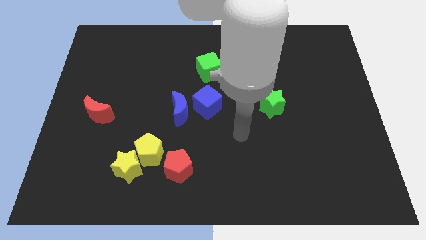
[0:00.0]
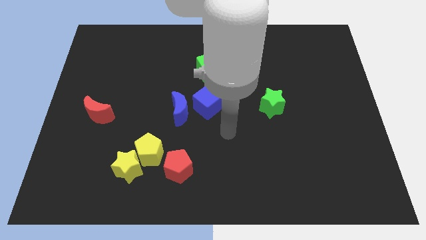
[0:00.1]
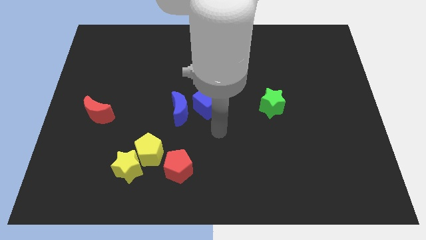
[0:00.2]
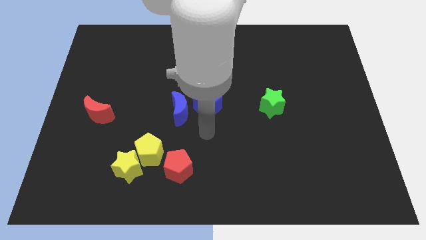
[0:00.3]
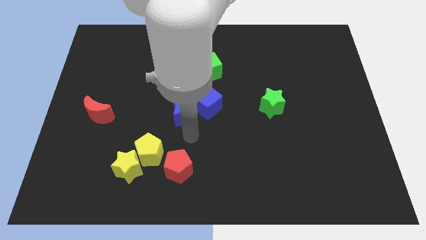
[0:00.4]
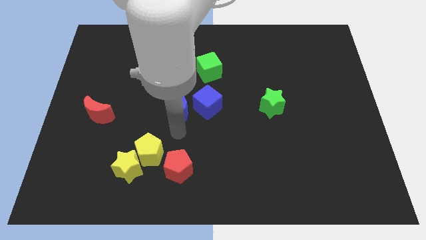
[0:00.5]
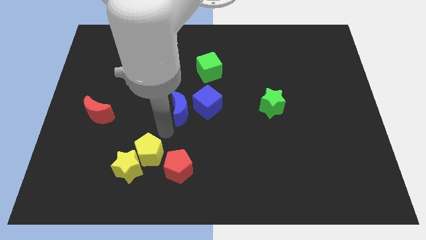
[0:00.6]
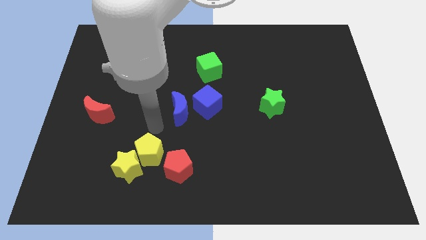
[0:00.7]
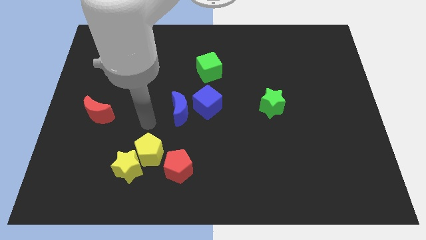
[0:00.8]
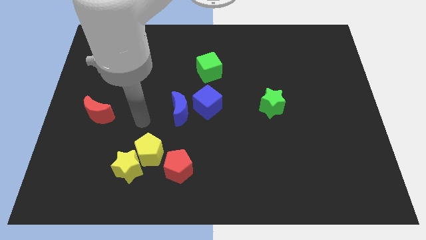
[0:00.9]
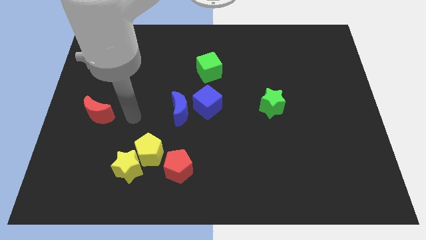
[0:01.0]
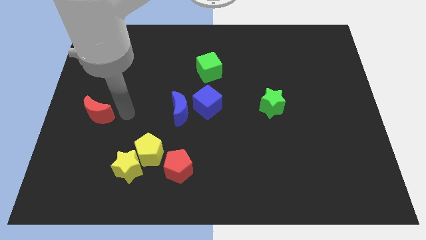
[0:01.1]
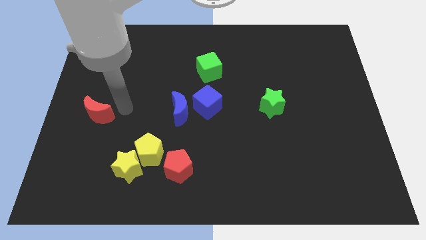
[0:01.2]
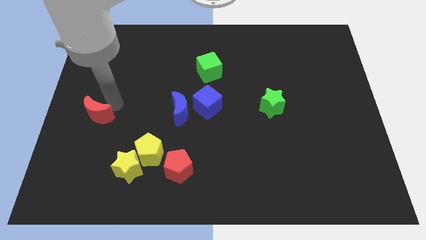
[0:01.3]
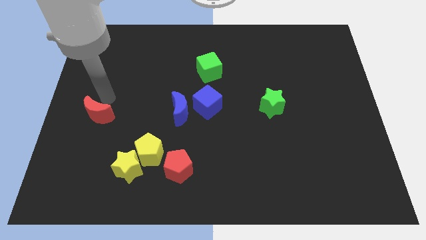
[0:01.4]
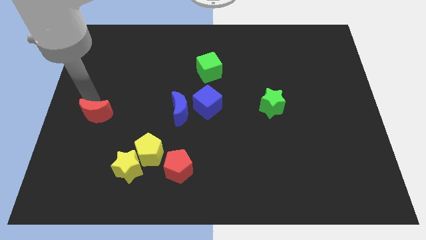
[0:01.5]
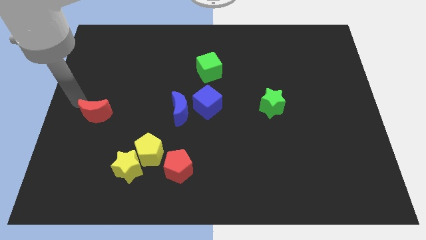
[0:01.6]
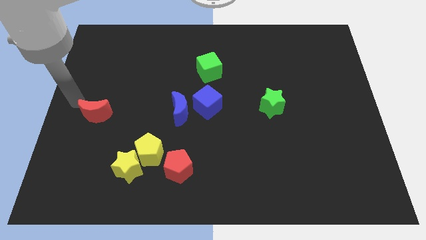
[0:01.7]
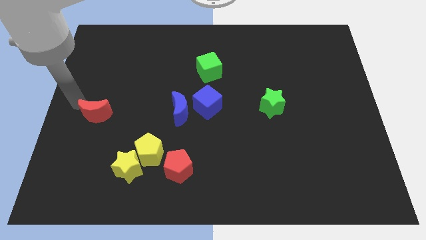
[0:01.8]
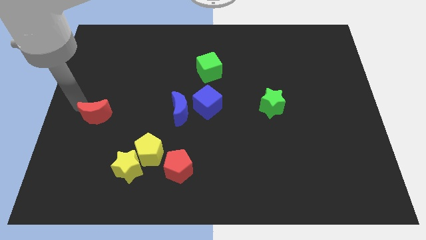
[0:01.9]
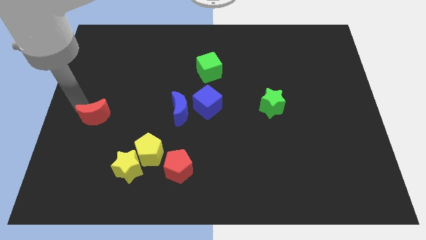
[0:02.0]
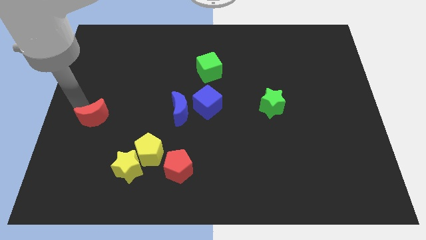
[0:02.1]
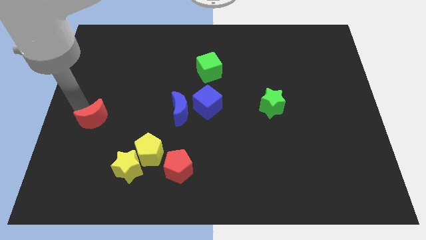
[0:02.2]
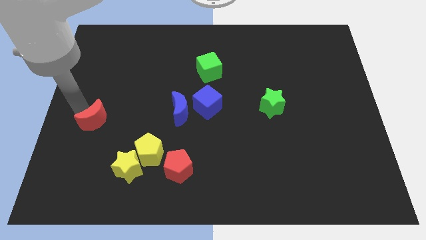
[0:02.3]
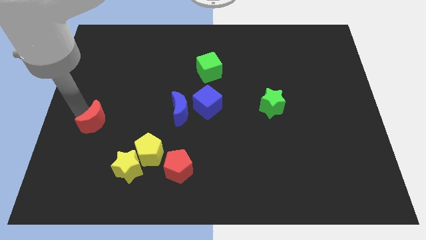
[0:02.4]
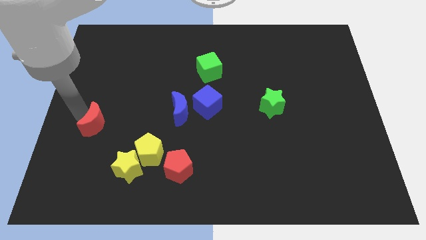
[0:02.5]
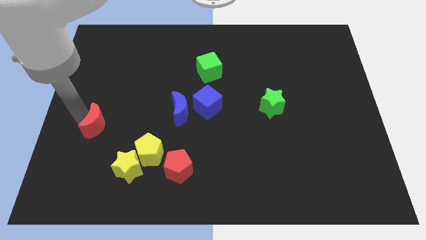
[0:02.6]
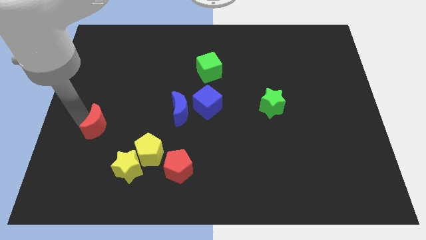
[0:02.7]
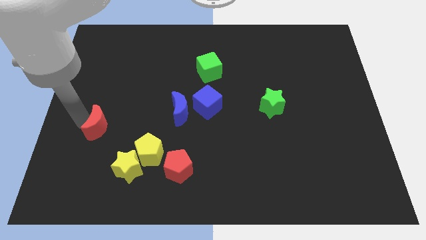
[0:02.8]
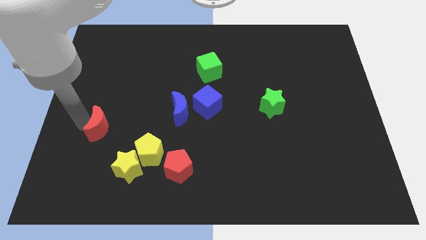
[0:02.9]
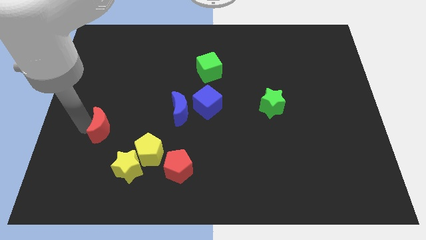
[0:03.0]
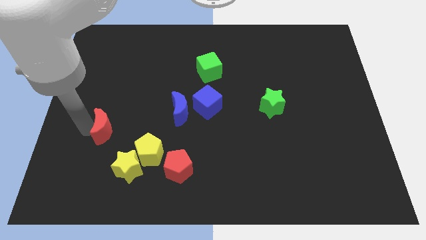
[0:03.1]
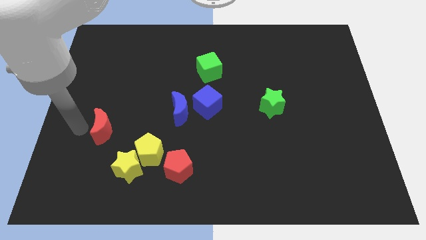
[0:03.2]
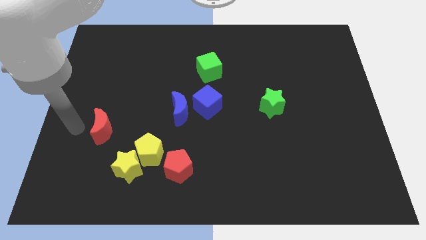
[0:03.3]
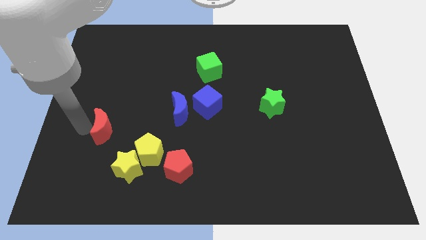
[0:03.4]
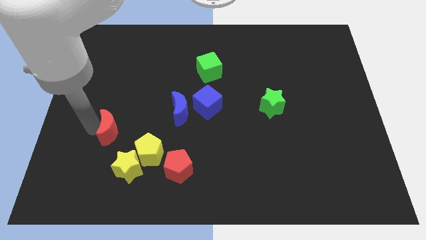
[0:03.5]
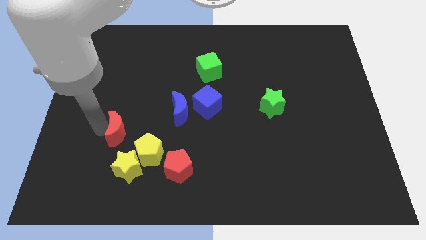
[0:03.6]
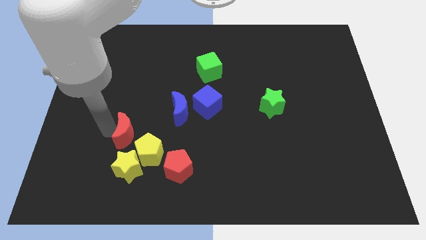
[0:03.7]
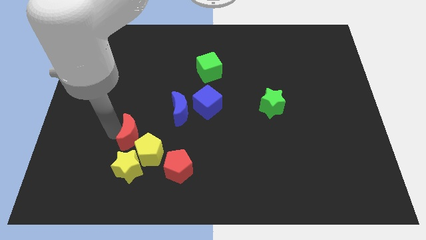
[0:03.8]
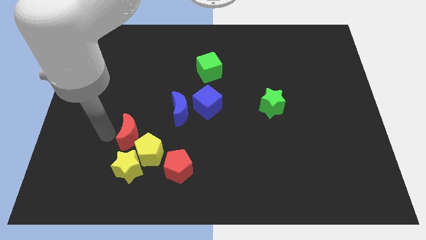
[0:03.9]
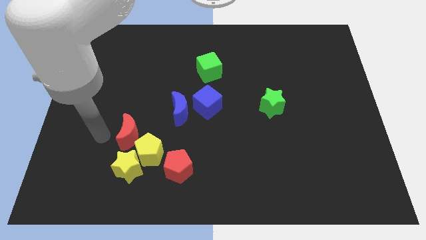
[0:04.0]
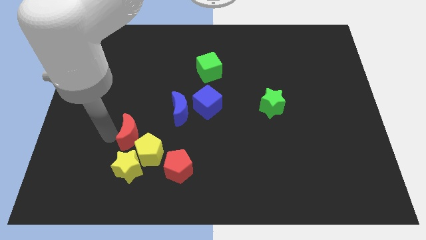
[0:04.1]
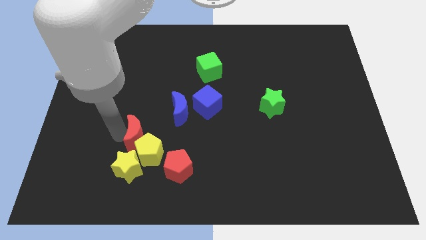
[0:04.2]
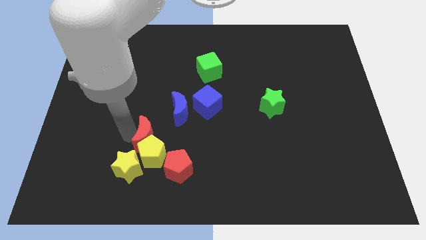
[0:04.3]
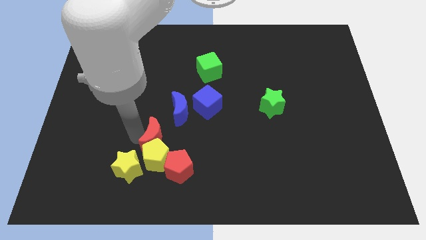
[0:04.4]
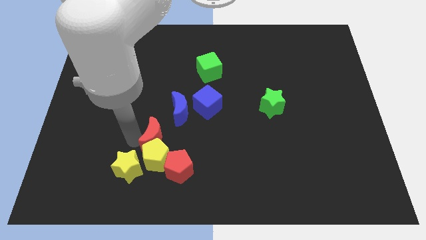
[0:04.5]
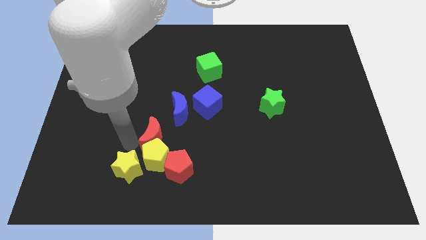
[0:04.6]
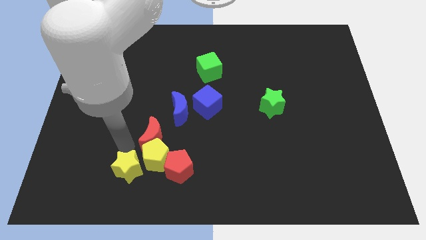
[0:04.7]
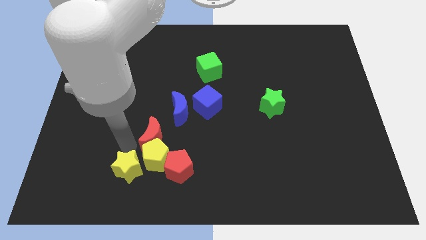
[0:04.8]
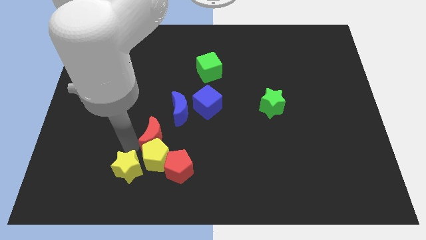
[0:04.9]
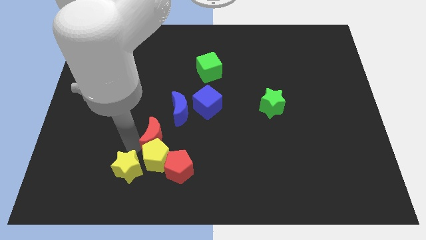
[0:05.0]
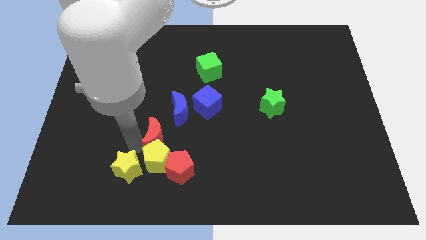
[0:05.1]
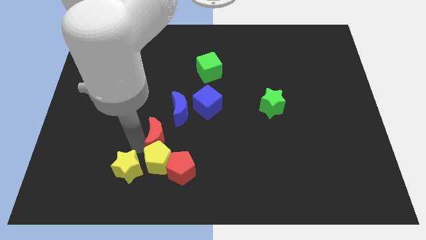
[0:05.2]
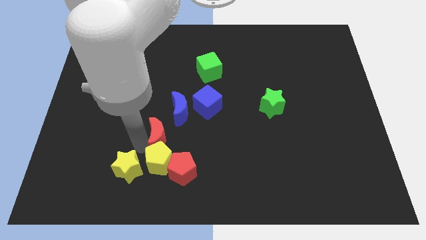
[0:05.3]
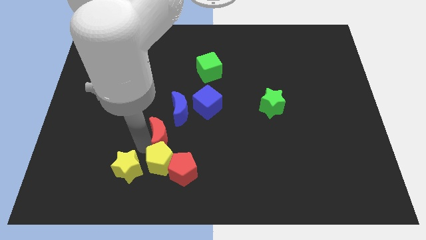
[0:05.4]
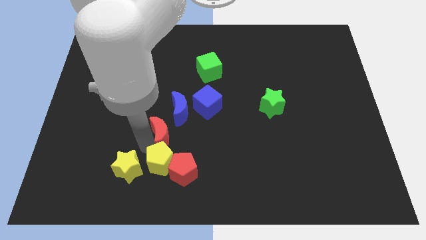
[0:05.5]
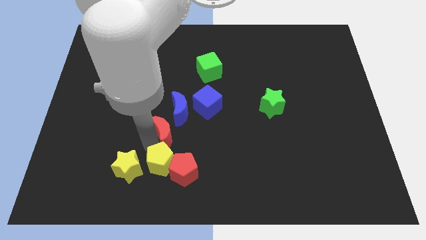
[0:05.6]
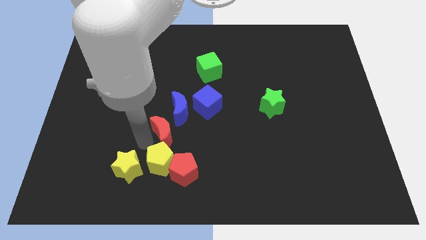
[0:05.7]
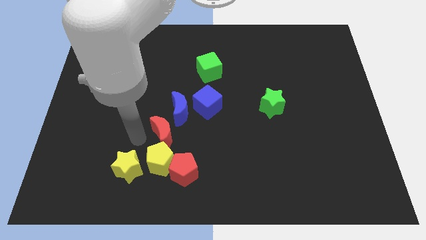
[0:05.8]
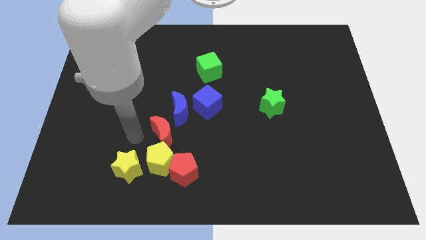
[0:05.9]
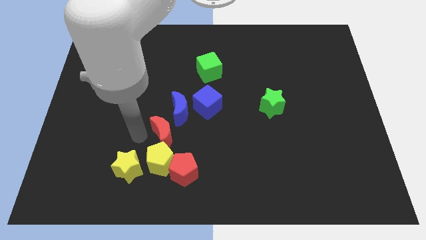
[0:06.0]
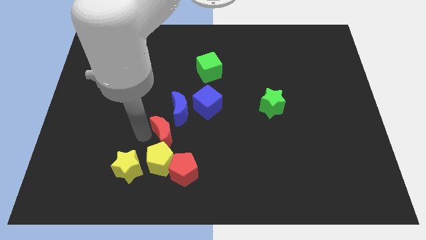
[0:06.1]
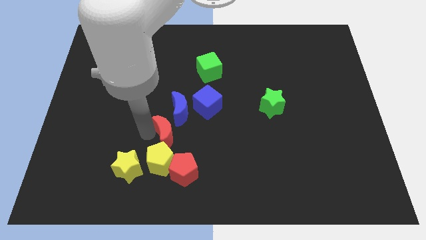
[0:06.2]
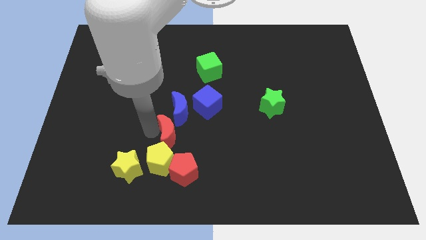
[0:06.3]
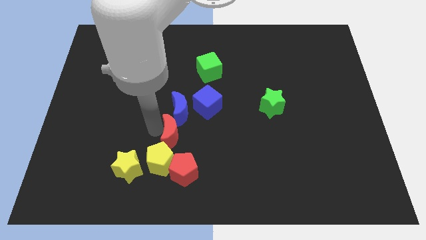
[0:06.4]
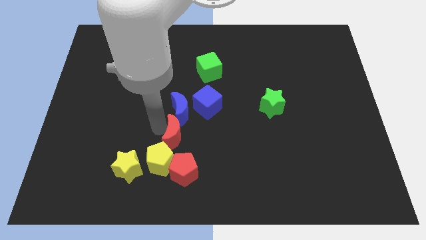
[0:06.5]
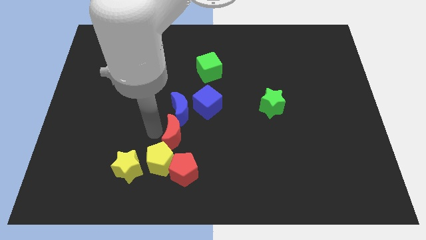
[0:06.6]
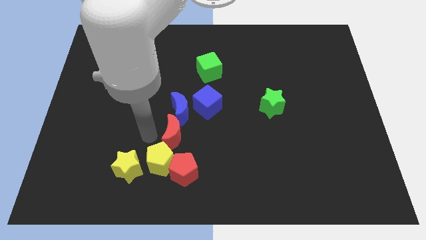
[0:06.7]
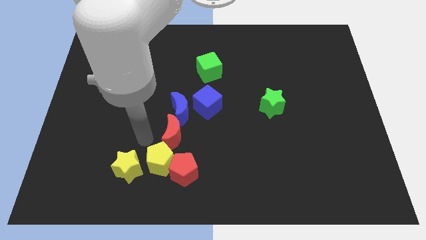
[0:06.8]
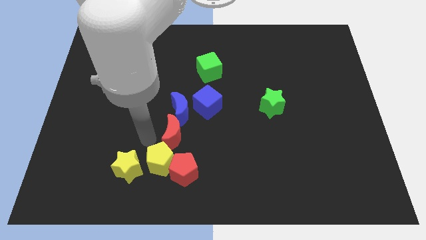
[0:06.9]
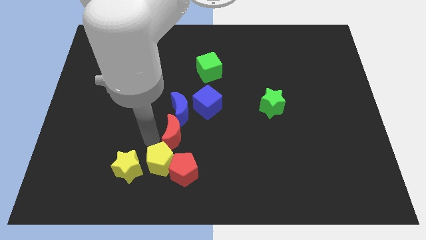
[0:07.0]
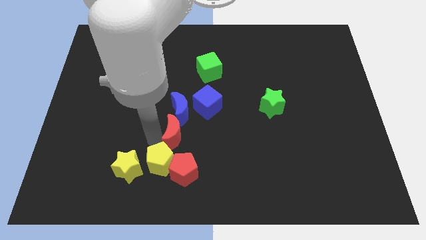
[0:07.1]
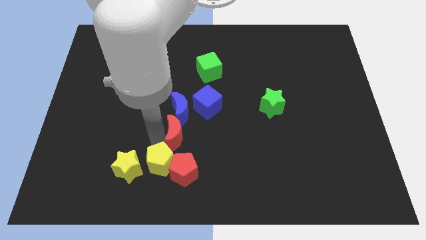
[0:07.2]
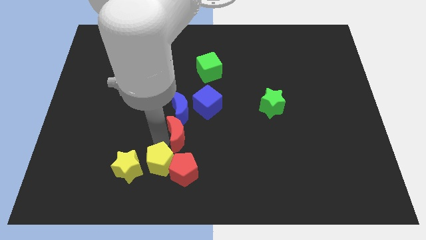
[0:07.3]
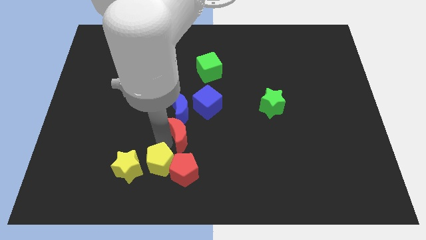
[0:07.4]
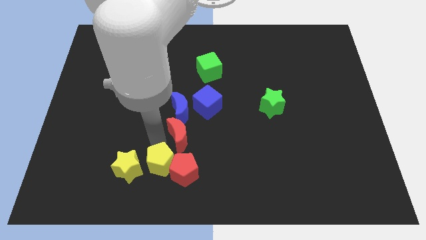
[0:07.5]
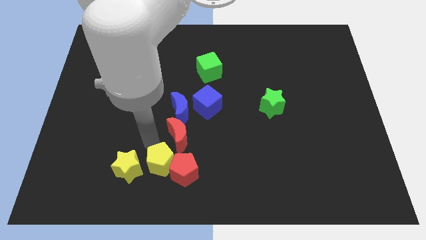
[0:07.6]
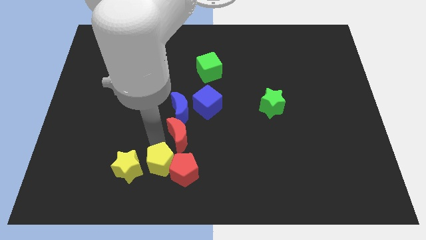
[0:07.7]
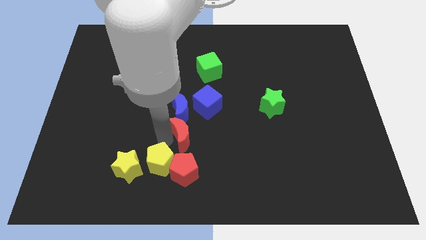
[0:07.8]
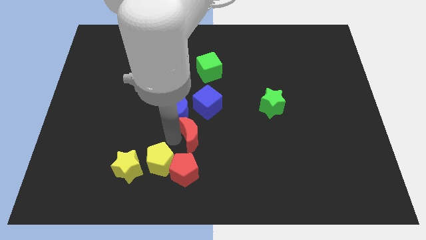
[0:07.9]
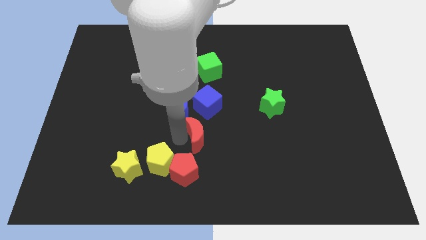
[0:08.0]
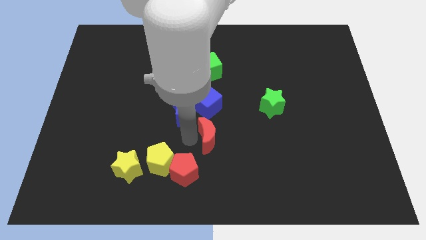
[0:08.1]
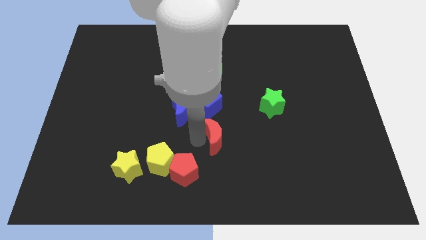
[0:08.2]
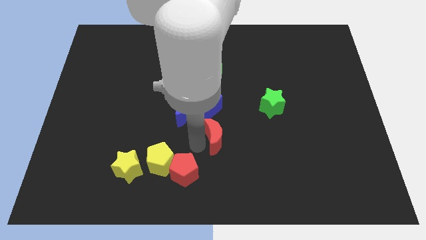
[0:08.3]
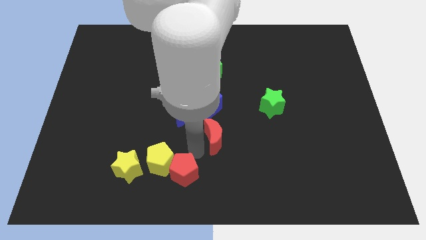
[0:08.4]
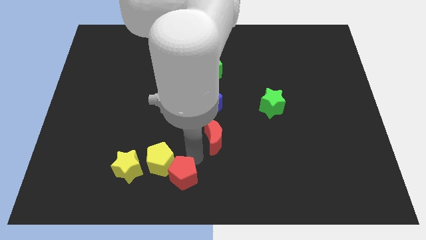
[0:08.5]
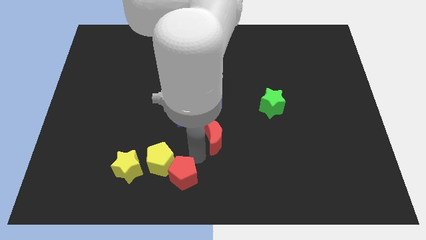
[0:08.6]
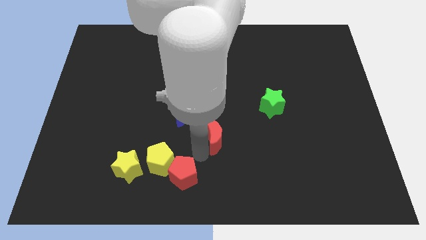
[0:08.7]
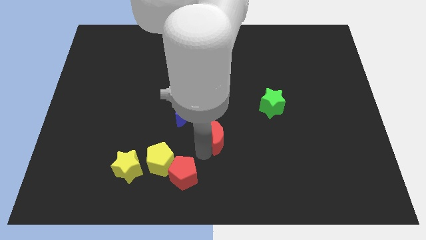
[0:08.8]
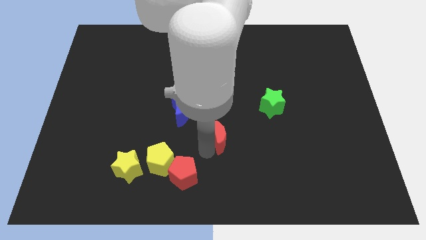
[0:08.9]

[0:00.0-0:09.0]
put the red moon to the bottom right side of the blue cube
